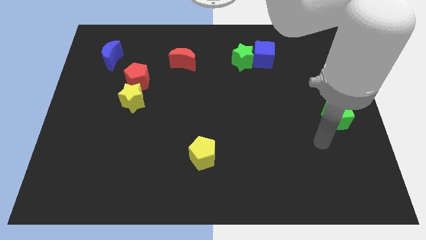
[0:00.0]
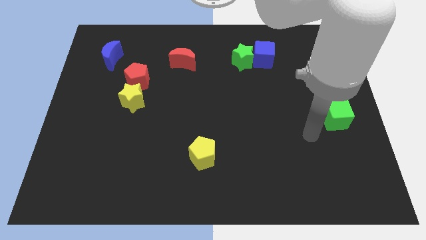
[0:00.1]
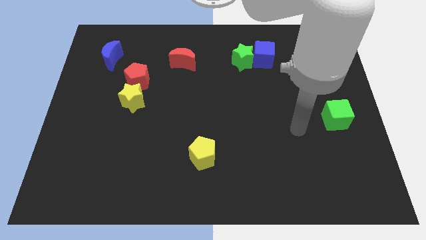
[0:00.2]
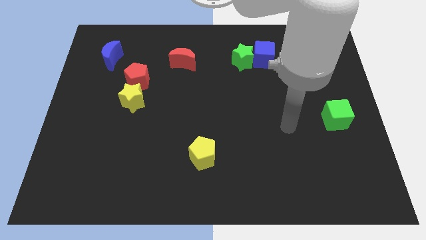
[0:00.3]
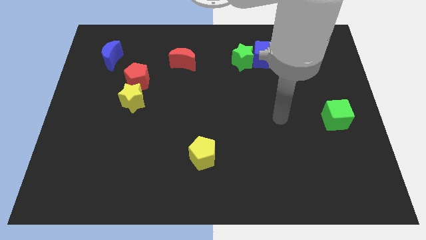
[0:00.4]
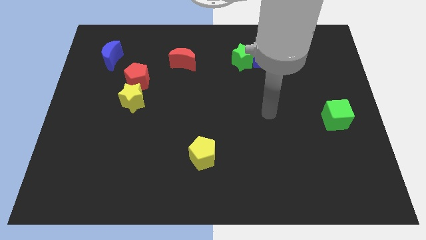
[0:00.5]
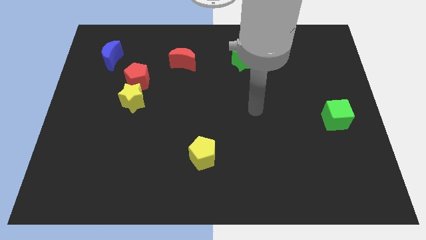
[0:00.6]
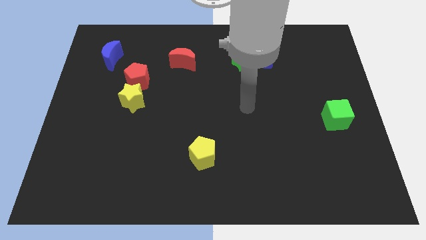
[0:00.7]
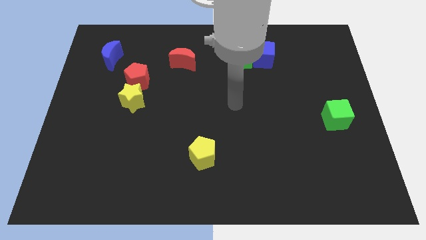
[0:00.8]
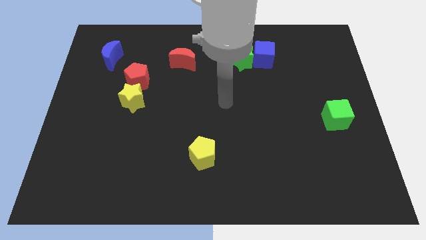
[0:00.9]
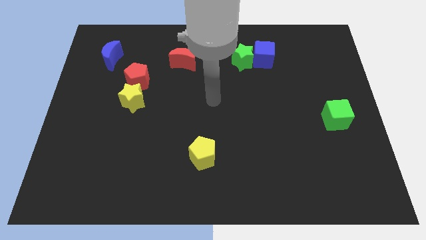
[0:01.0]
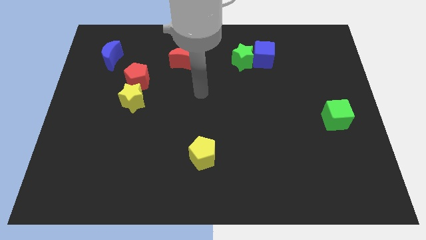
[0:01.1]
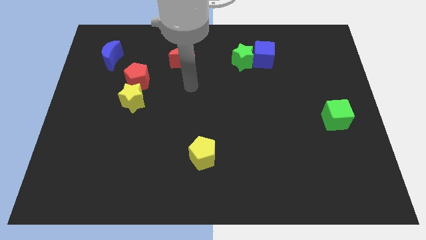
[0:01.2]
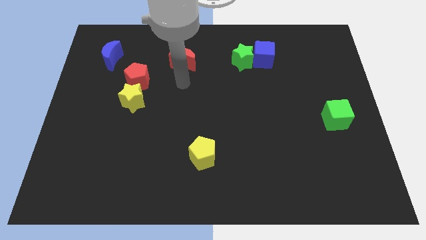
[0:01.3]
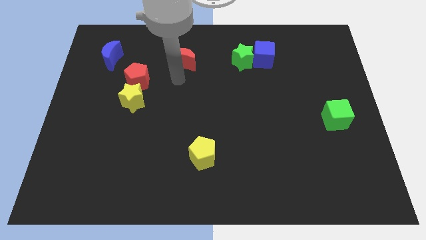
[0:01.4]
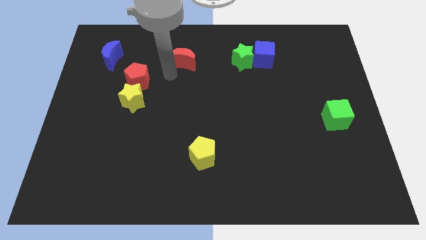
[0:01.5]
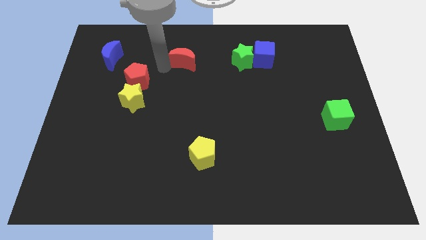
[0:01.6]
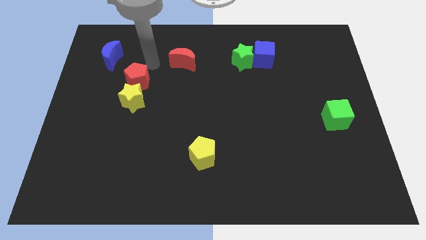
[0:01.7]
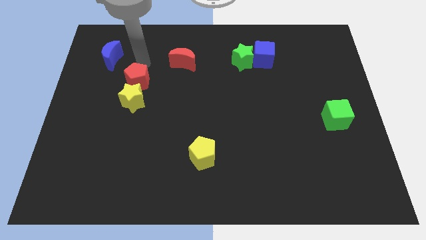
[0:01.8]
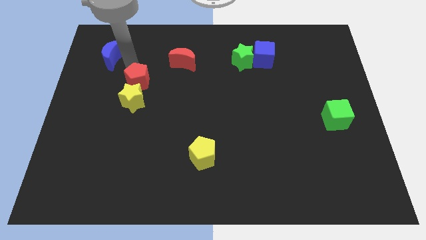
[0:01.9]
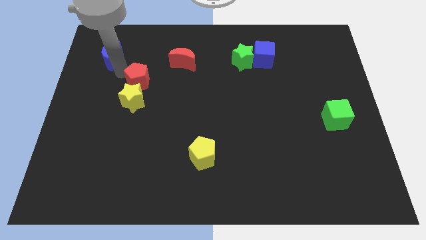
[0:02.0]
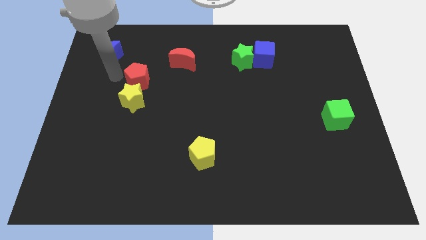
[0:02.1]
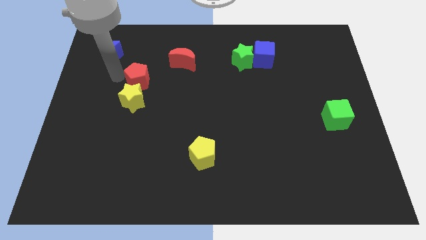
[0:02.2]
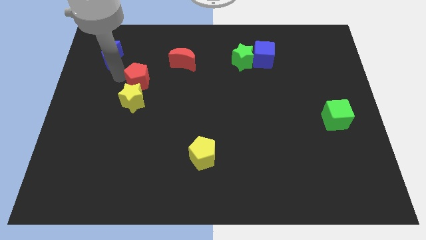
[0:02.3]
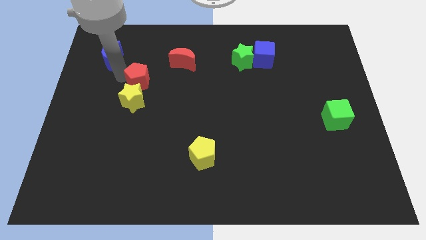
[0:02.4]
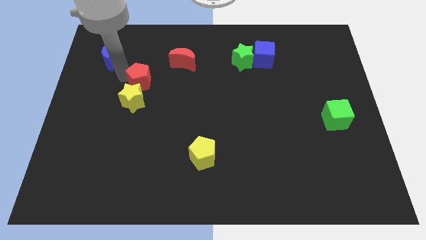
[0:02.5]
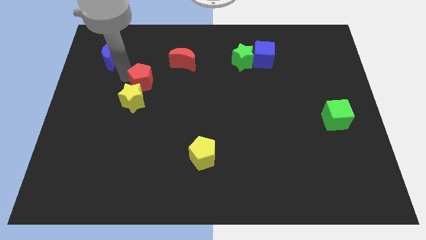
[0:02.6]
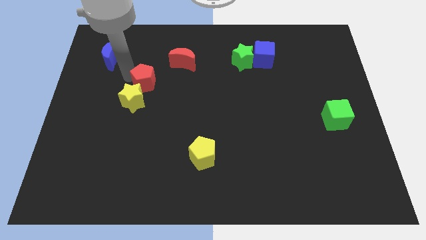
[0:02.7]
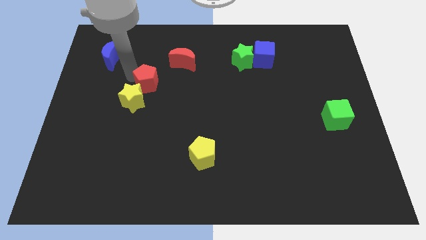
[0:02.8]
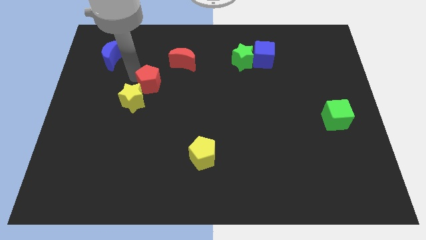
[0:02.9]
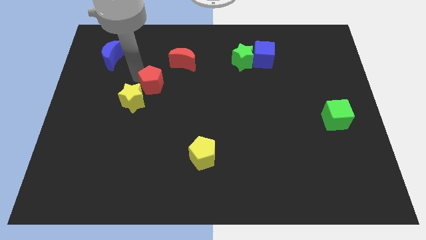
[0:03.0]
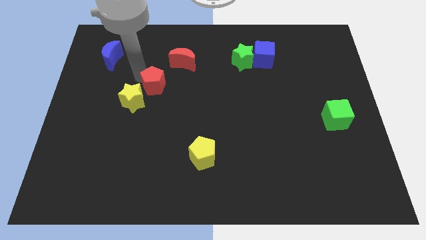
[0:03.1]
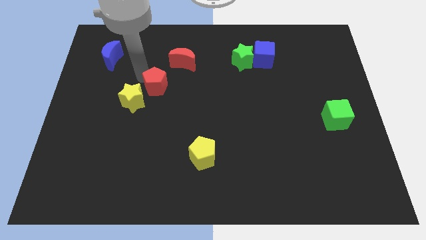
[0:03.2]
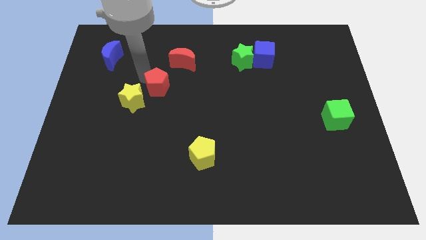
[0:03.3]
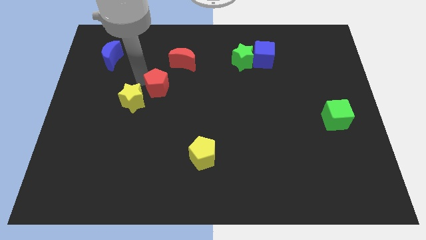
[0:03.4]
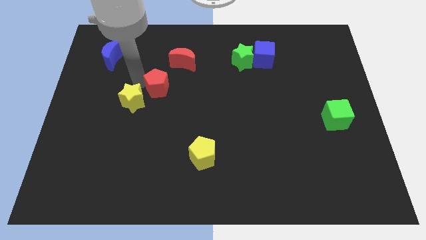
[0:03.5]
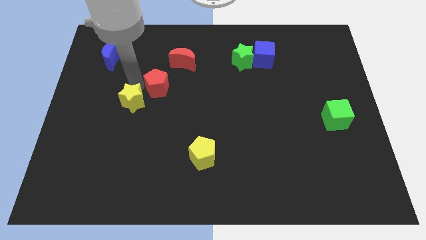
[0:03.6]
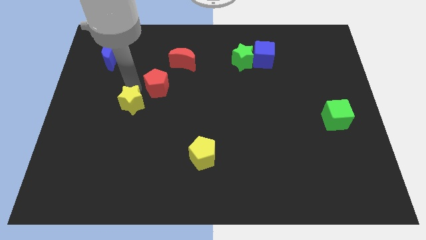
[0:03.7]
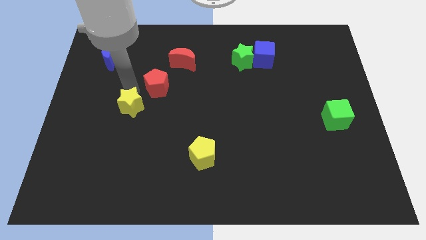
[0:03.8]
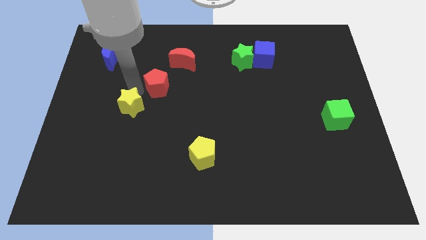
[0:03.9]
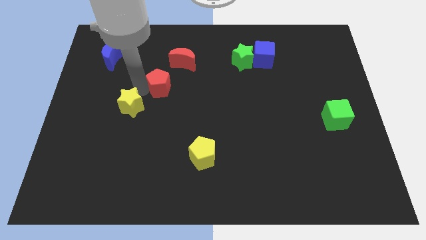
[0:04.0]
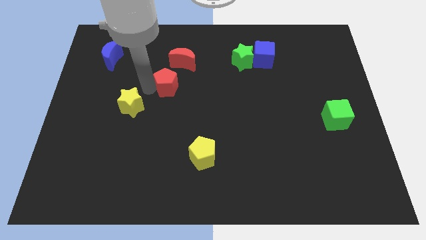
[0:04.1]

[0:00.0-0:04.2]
slightly move the red pentagon to the right

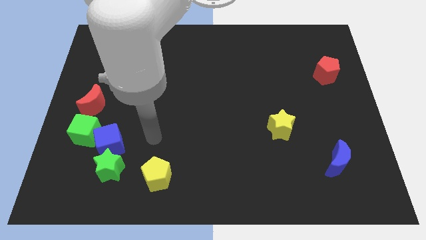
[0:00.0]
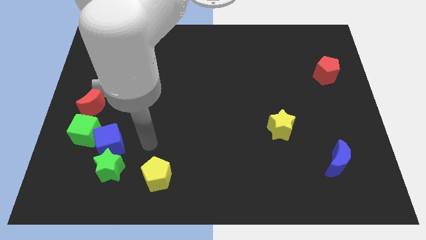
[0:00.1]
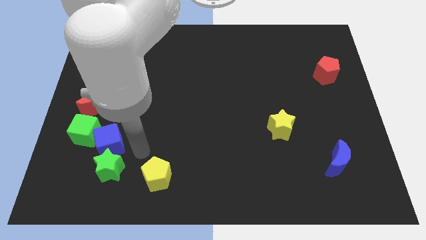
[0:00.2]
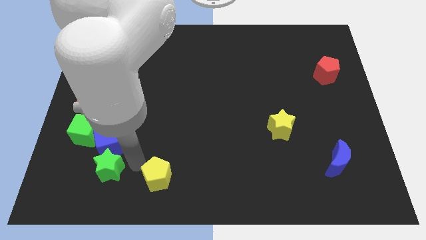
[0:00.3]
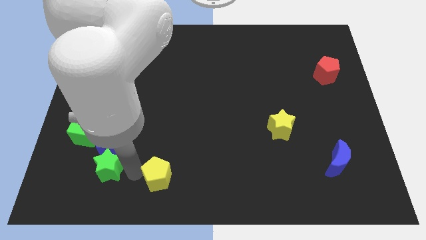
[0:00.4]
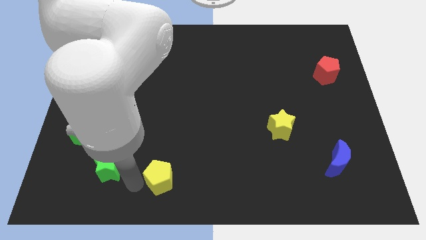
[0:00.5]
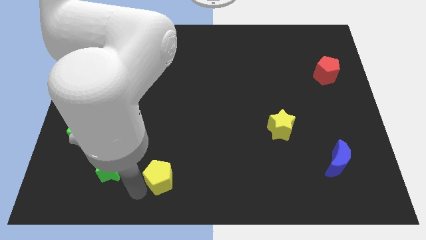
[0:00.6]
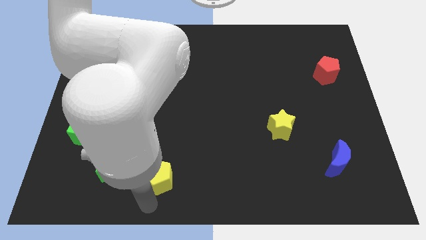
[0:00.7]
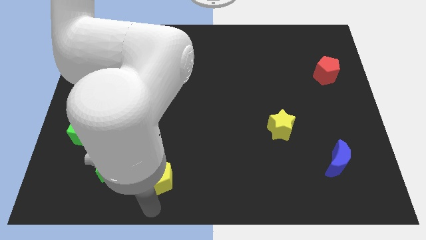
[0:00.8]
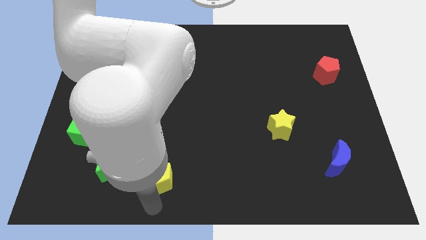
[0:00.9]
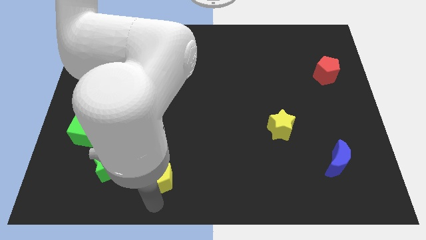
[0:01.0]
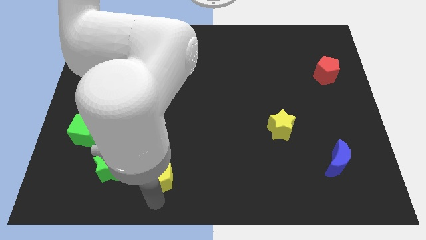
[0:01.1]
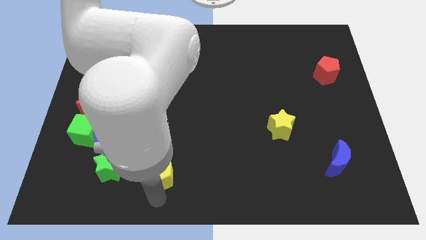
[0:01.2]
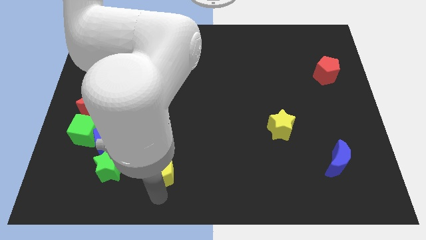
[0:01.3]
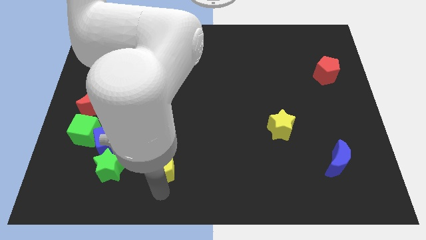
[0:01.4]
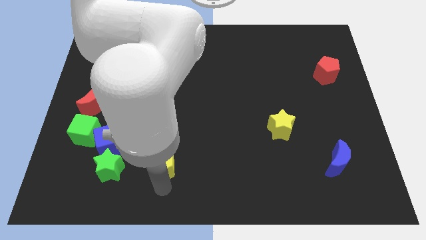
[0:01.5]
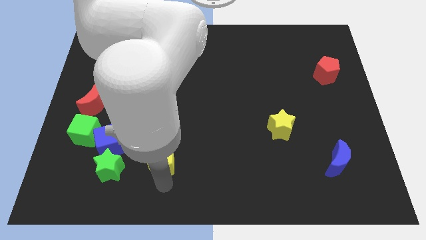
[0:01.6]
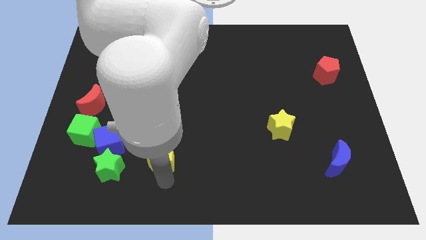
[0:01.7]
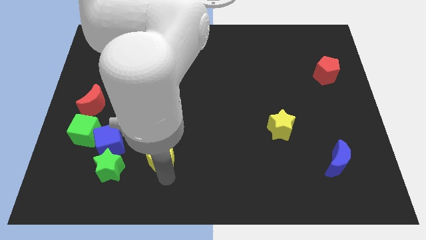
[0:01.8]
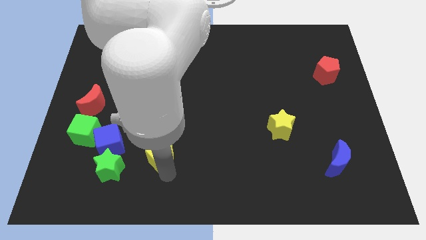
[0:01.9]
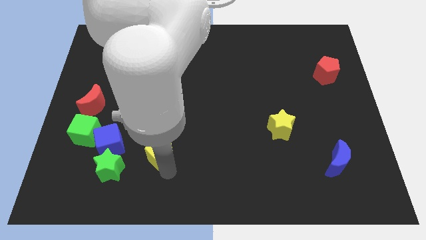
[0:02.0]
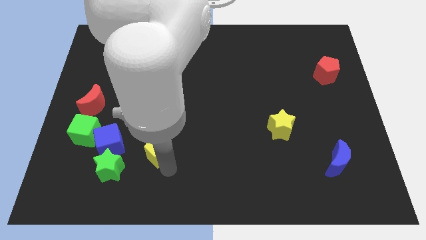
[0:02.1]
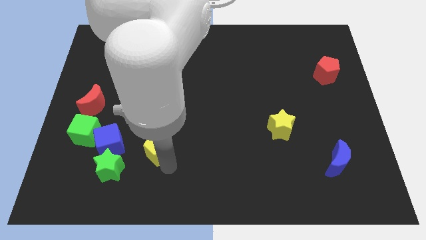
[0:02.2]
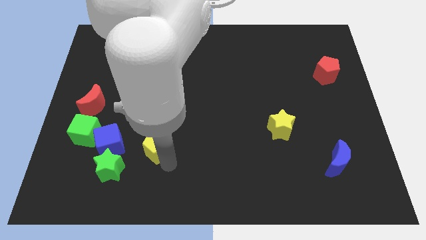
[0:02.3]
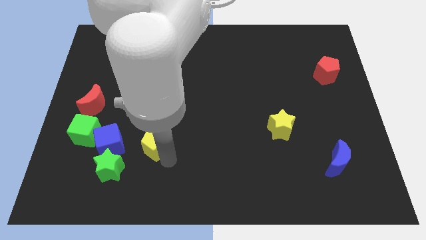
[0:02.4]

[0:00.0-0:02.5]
move the yellow pentagon up a little

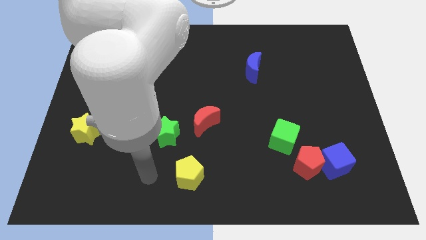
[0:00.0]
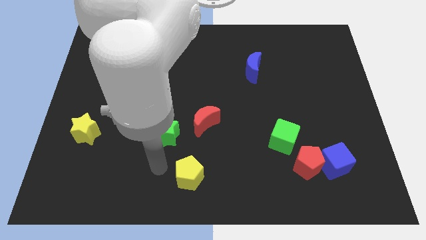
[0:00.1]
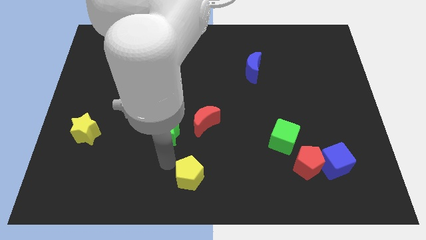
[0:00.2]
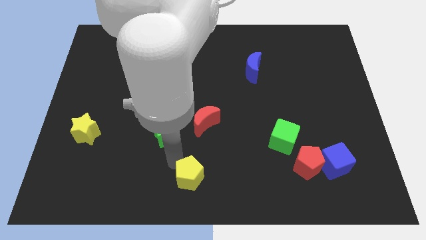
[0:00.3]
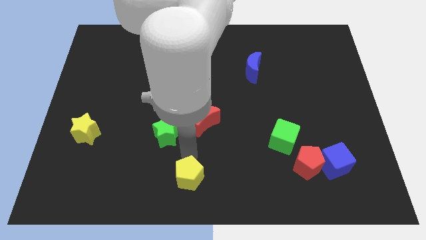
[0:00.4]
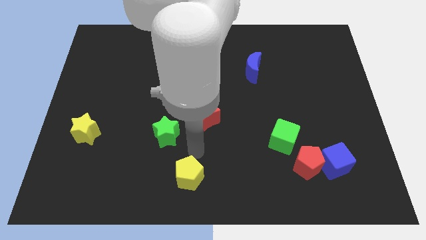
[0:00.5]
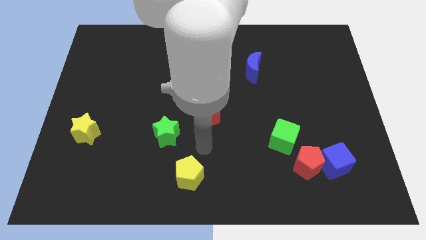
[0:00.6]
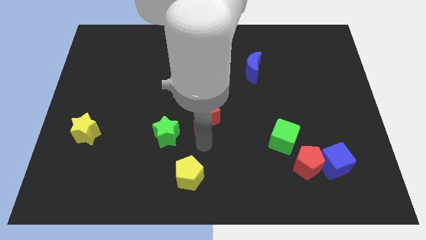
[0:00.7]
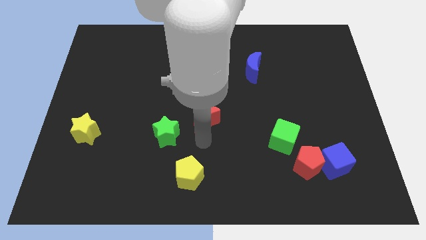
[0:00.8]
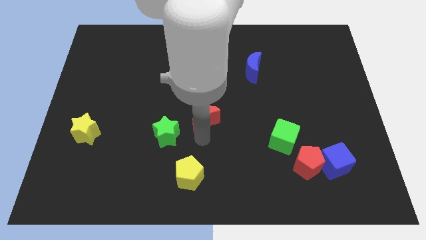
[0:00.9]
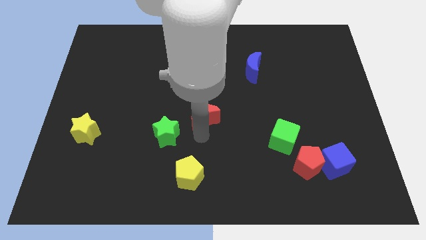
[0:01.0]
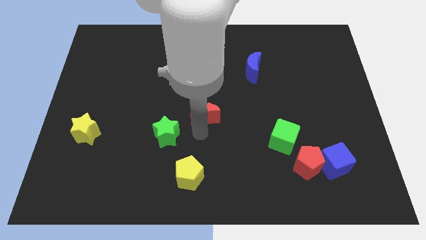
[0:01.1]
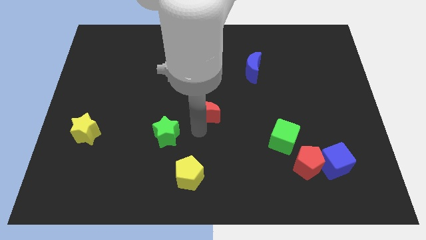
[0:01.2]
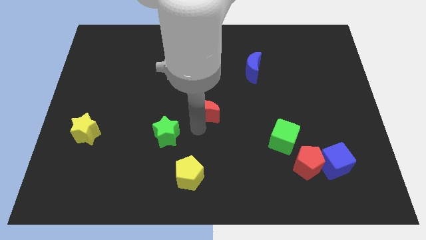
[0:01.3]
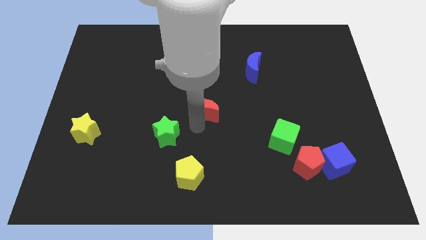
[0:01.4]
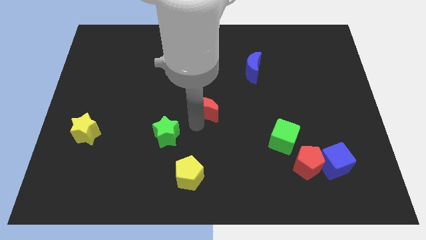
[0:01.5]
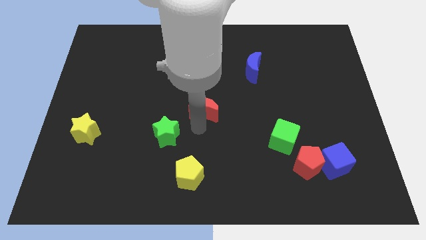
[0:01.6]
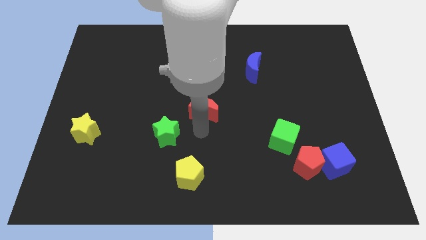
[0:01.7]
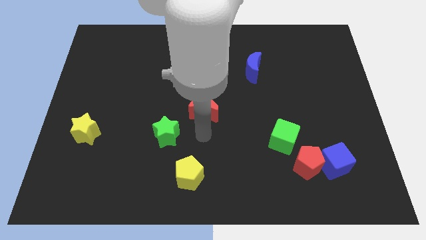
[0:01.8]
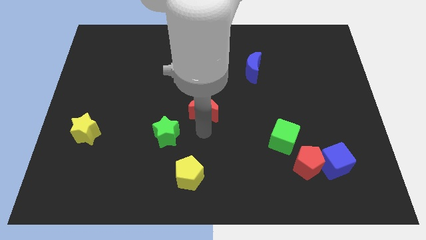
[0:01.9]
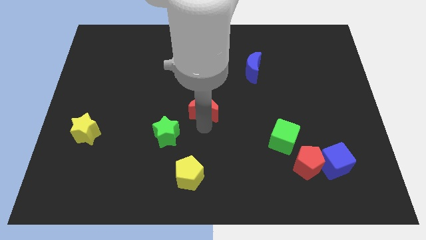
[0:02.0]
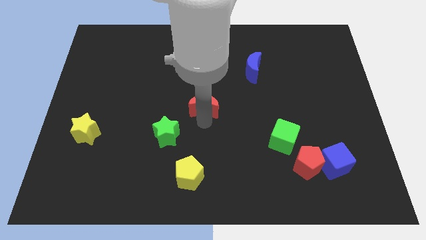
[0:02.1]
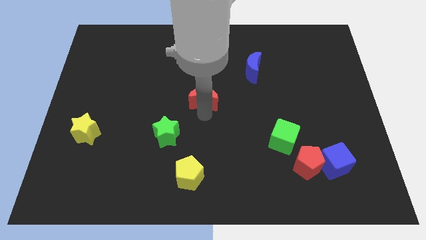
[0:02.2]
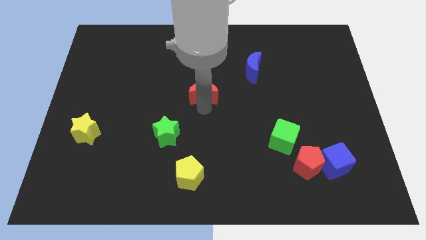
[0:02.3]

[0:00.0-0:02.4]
slide the red moon up a little
